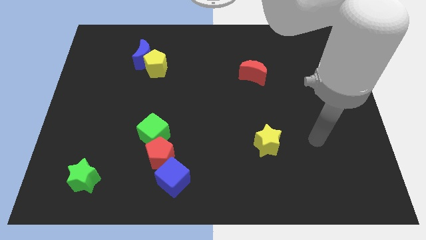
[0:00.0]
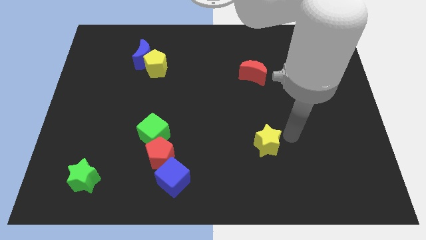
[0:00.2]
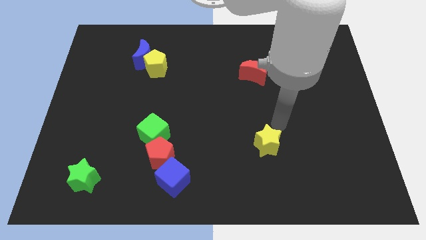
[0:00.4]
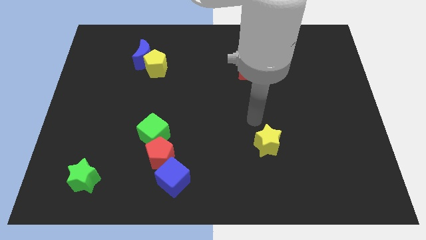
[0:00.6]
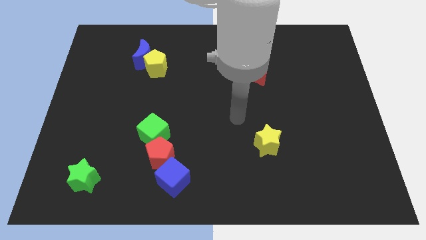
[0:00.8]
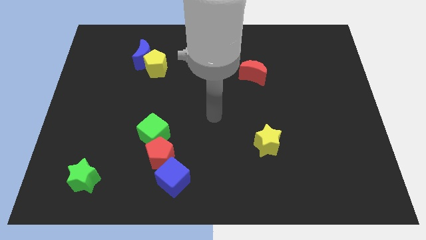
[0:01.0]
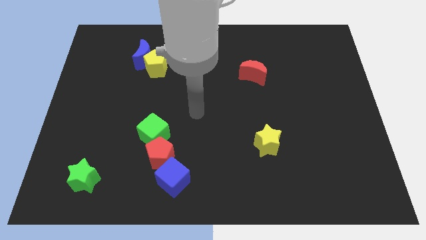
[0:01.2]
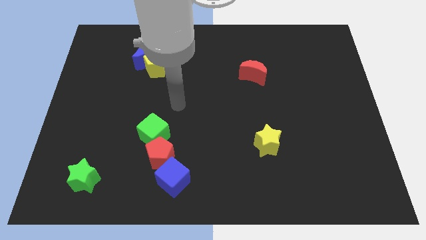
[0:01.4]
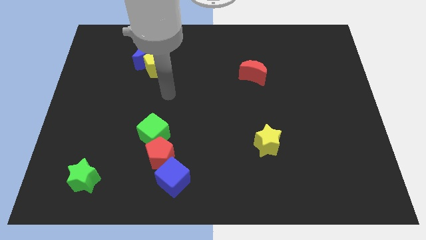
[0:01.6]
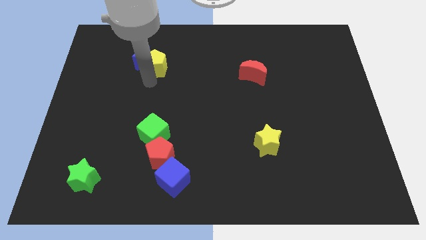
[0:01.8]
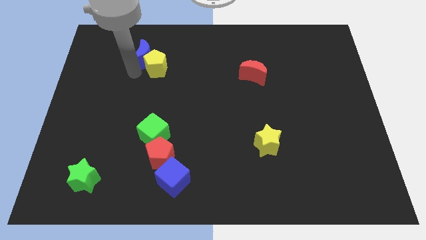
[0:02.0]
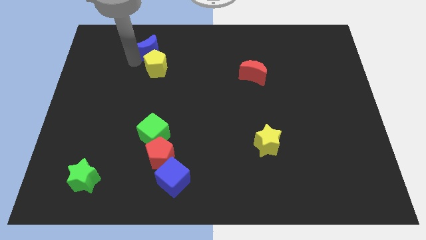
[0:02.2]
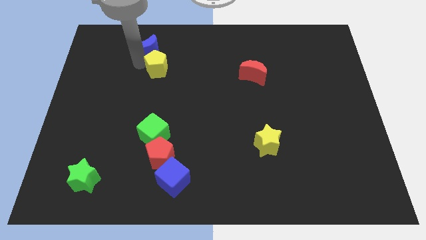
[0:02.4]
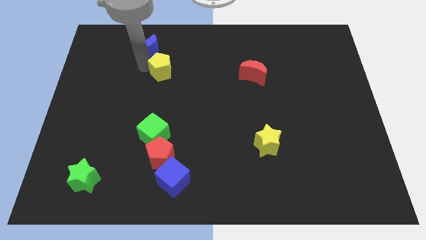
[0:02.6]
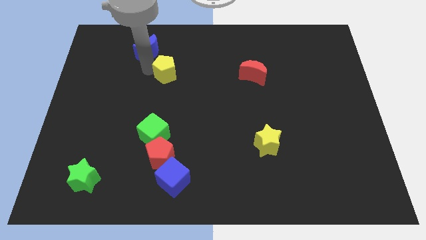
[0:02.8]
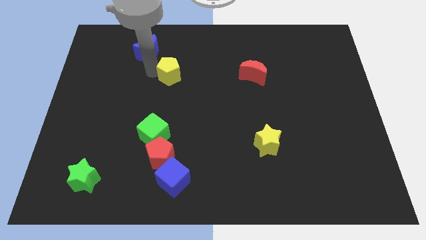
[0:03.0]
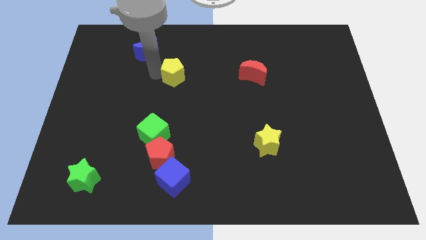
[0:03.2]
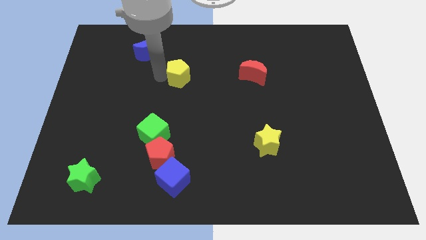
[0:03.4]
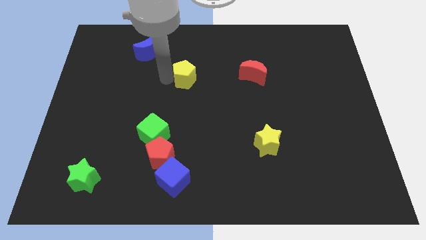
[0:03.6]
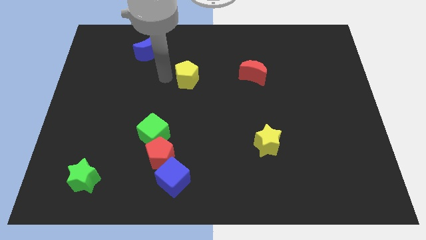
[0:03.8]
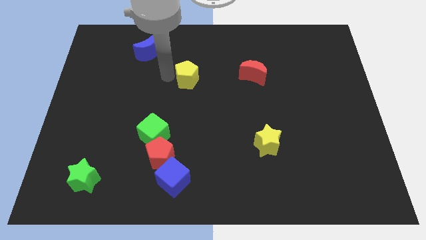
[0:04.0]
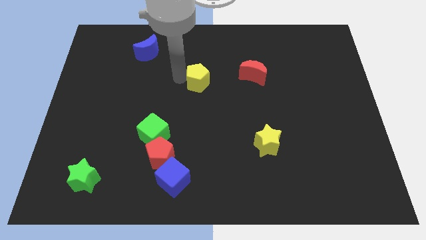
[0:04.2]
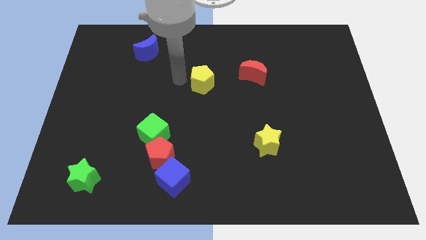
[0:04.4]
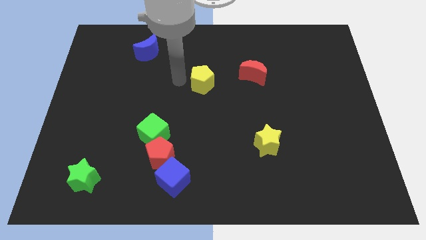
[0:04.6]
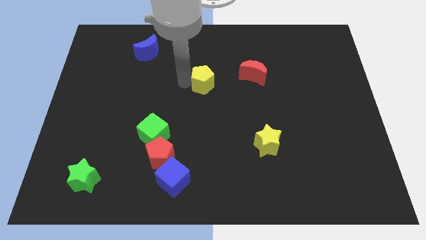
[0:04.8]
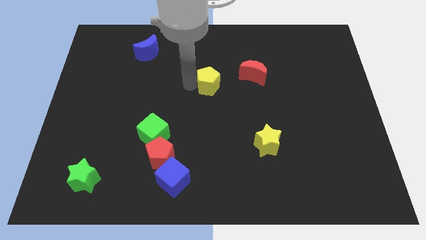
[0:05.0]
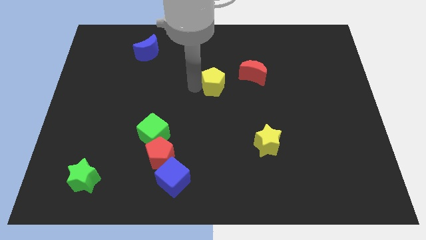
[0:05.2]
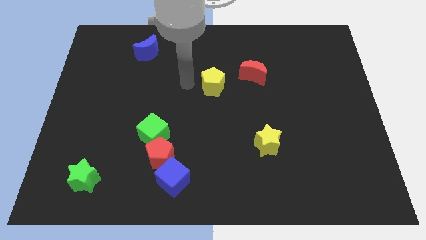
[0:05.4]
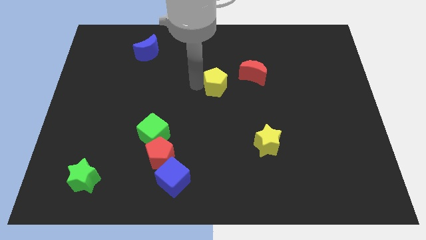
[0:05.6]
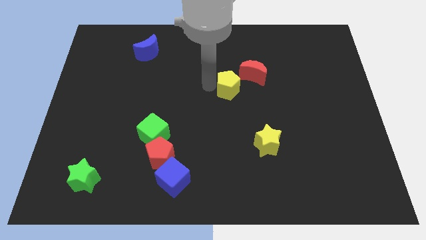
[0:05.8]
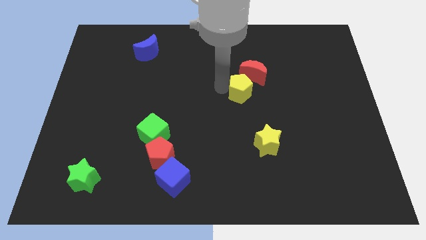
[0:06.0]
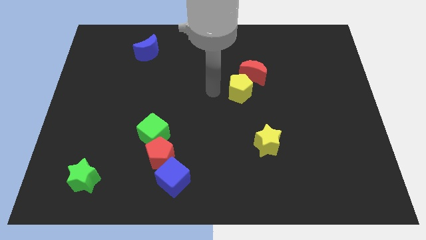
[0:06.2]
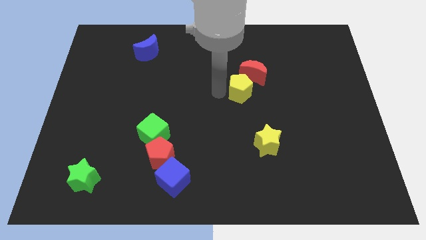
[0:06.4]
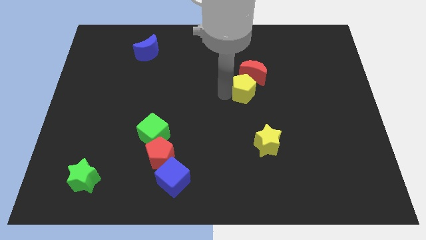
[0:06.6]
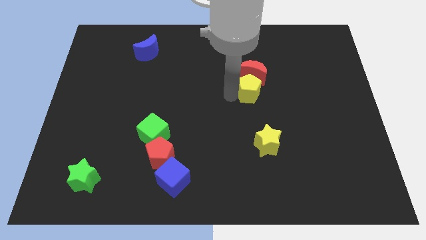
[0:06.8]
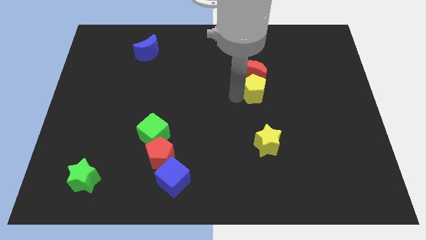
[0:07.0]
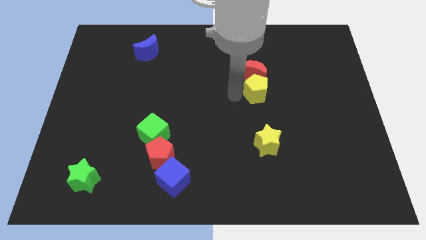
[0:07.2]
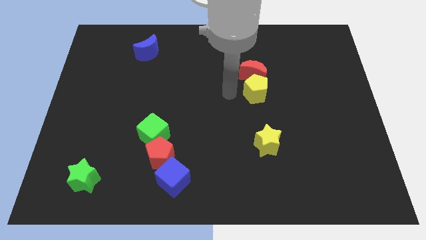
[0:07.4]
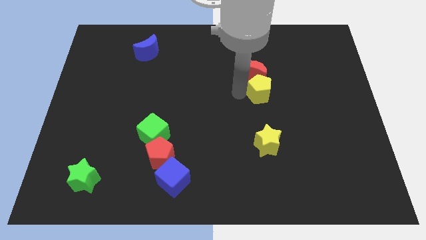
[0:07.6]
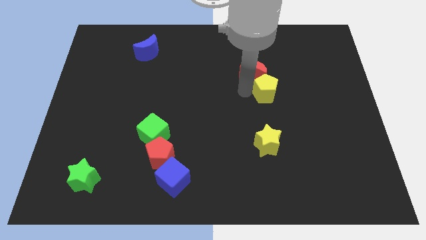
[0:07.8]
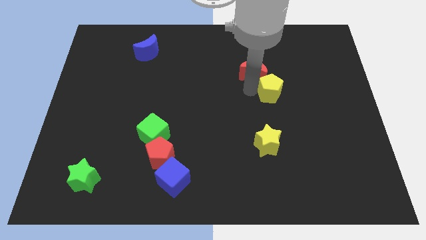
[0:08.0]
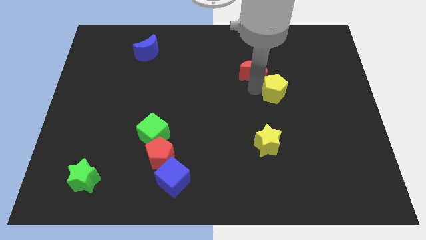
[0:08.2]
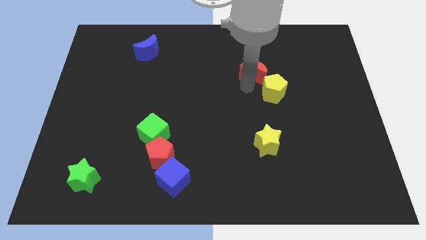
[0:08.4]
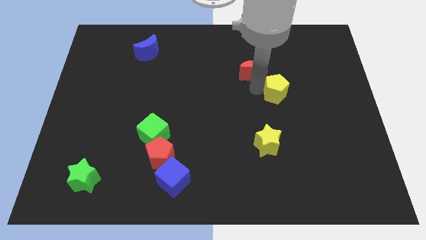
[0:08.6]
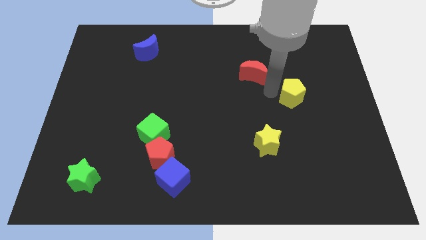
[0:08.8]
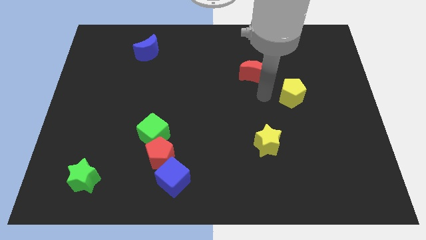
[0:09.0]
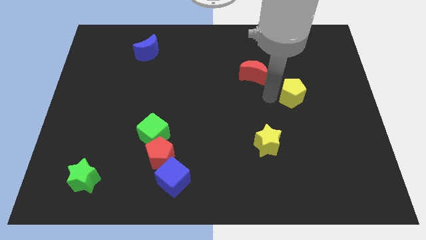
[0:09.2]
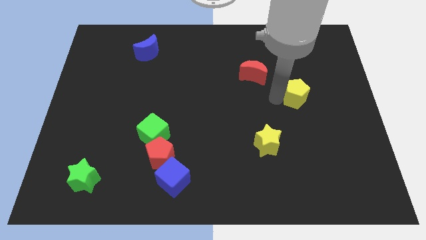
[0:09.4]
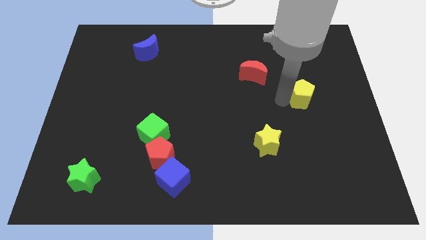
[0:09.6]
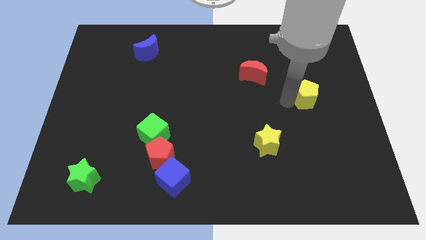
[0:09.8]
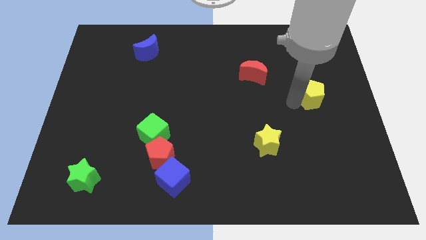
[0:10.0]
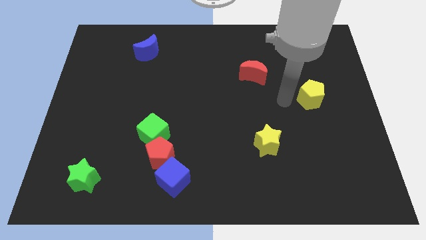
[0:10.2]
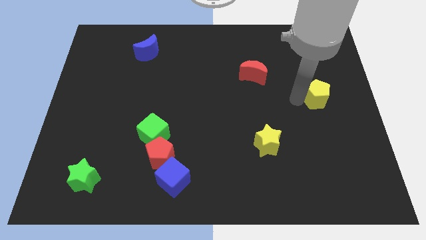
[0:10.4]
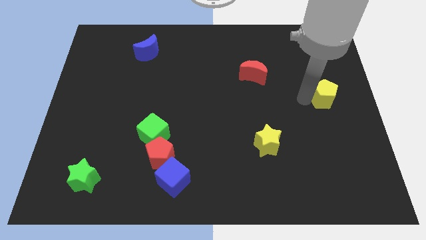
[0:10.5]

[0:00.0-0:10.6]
slide the yellow pentagon to the center right

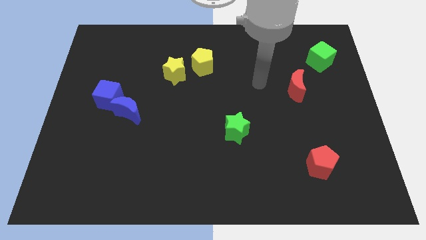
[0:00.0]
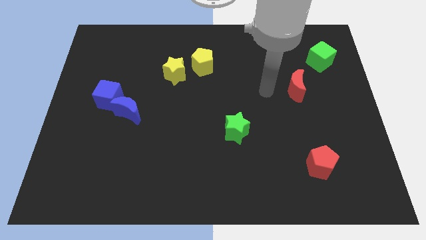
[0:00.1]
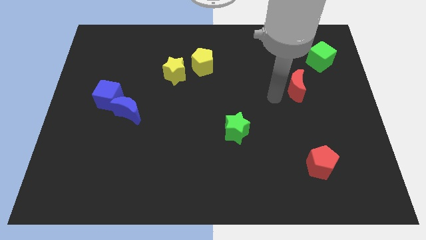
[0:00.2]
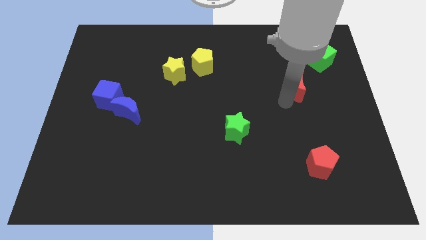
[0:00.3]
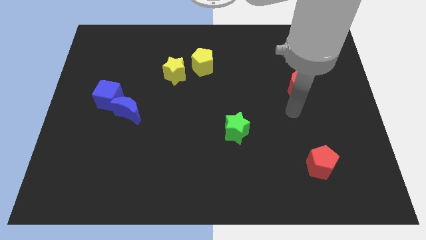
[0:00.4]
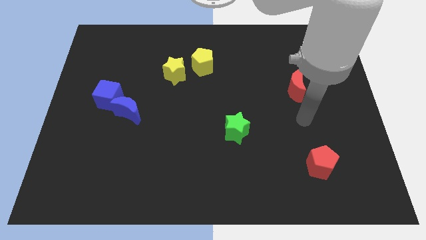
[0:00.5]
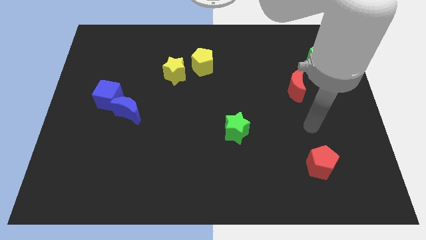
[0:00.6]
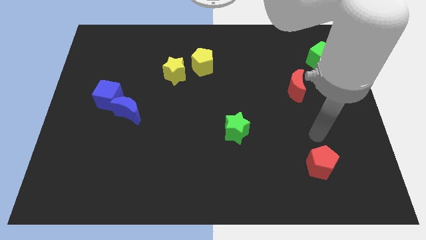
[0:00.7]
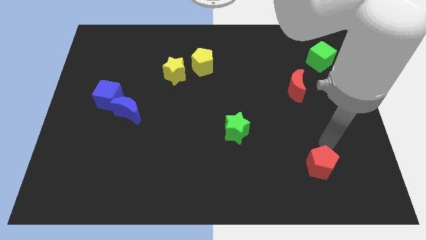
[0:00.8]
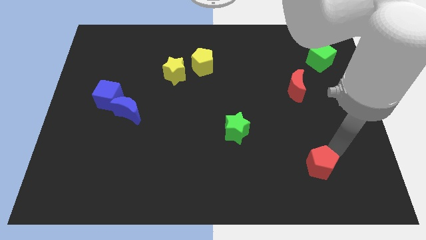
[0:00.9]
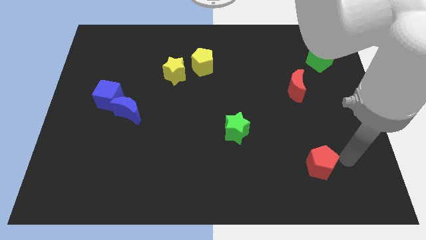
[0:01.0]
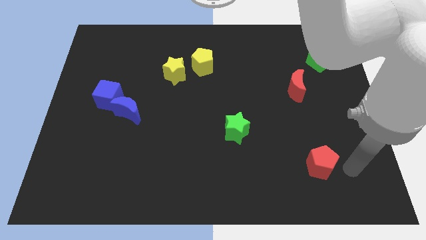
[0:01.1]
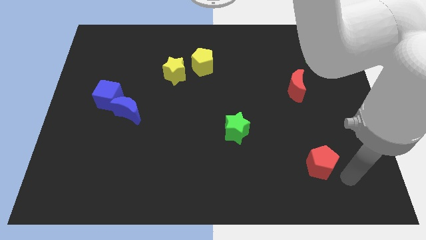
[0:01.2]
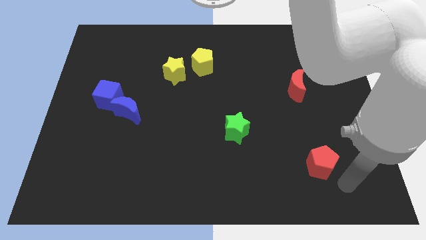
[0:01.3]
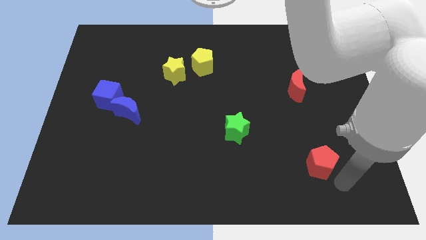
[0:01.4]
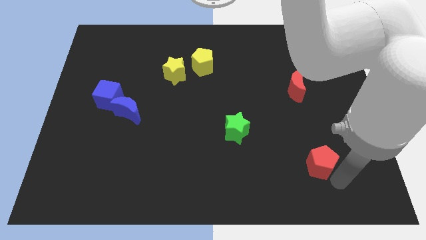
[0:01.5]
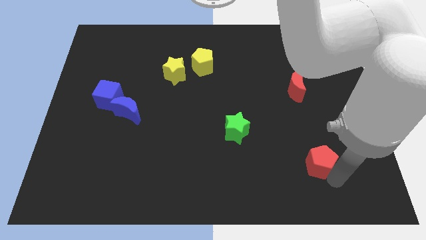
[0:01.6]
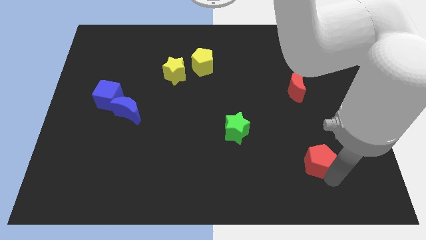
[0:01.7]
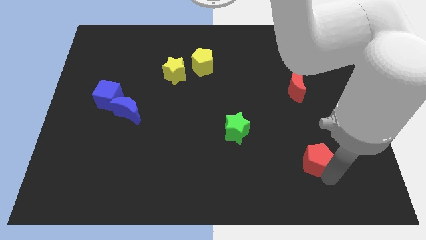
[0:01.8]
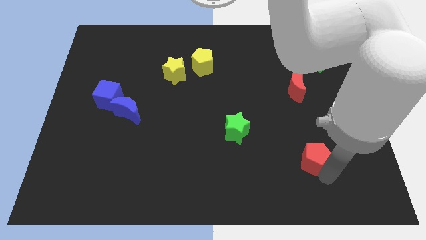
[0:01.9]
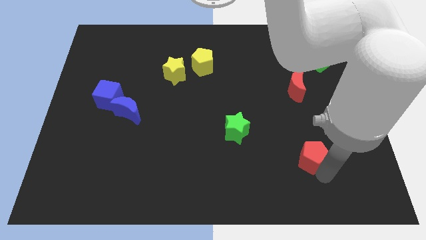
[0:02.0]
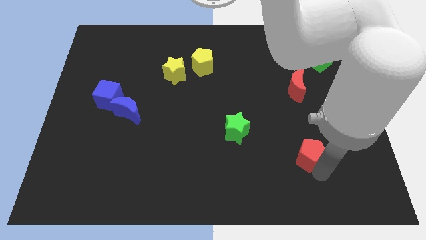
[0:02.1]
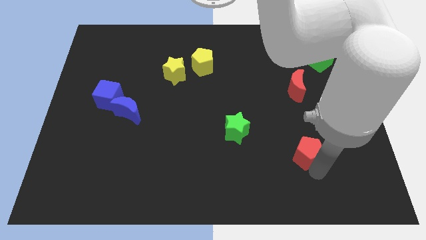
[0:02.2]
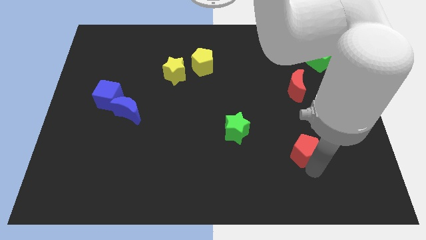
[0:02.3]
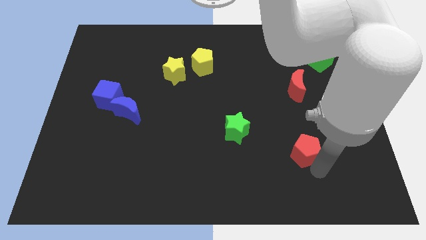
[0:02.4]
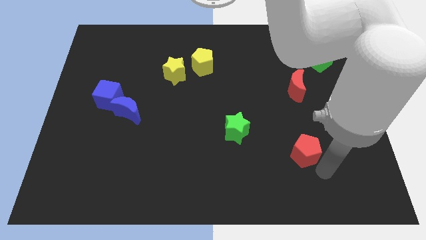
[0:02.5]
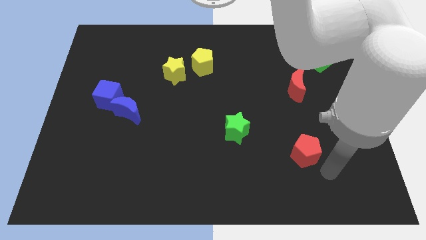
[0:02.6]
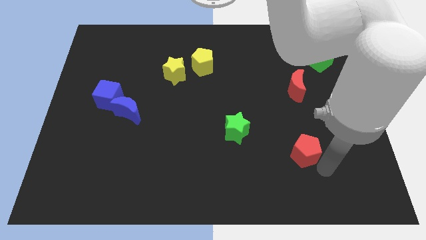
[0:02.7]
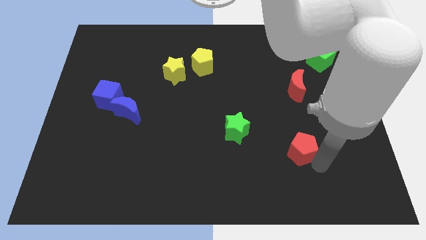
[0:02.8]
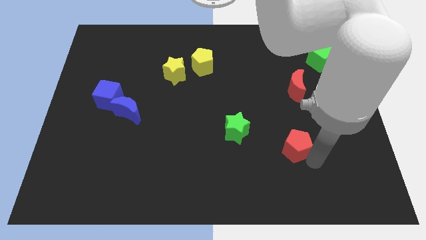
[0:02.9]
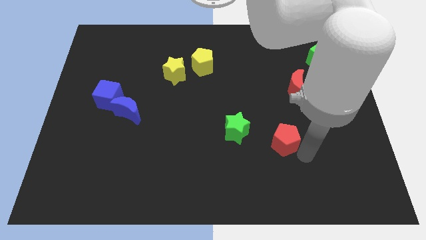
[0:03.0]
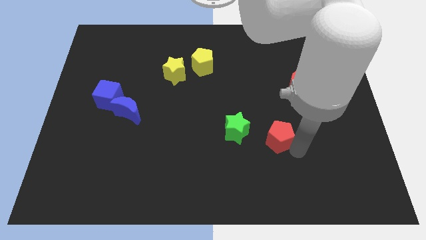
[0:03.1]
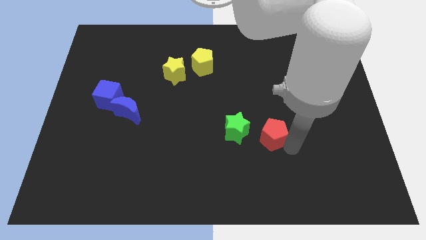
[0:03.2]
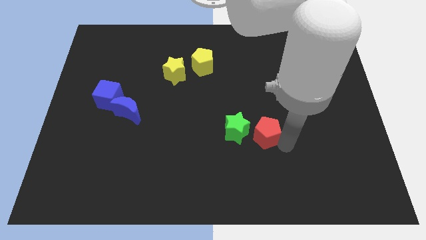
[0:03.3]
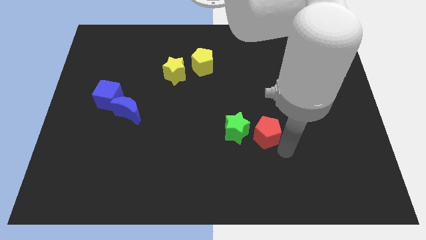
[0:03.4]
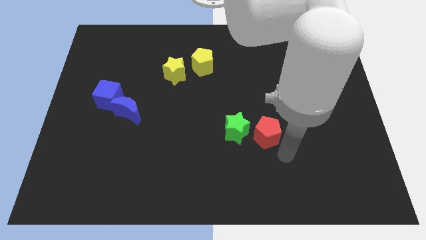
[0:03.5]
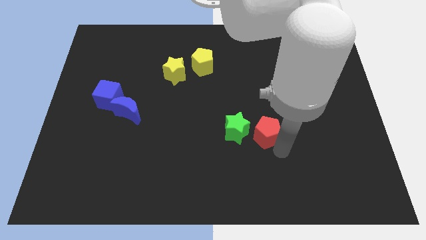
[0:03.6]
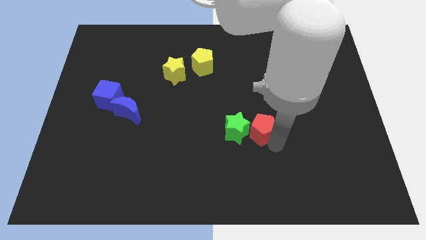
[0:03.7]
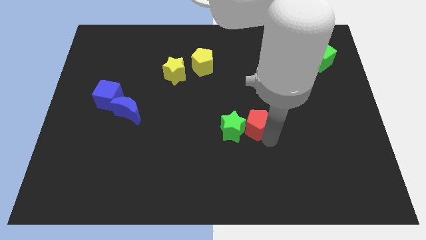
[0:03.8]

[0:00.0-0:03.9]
move the red pentagon to the middle
